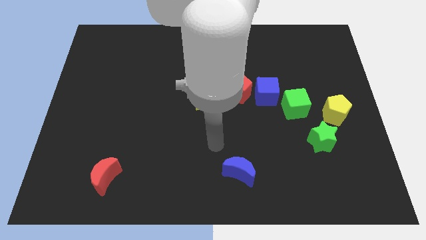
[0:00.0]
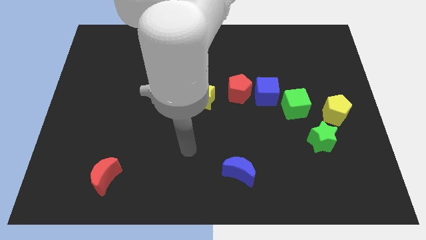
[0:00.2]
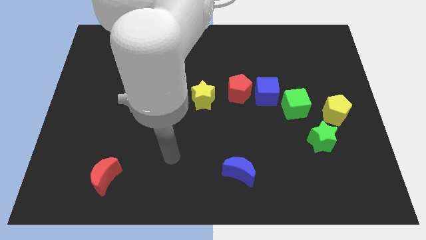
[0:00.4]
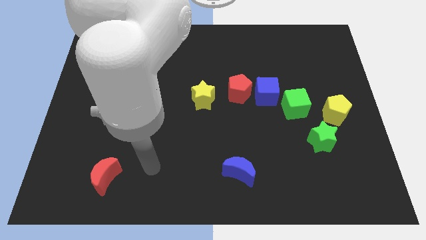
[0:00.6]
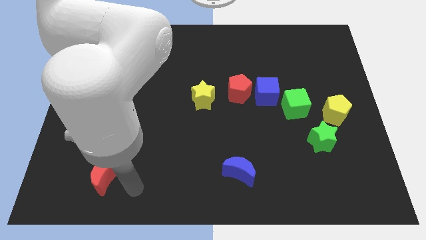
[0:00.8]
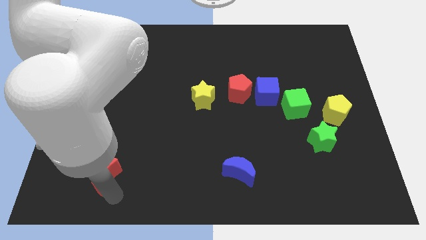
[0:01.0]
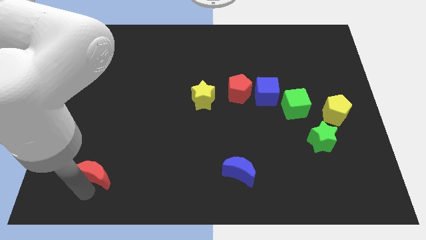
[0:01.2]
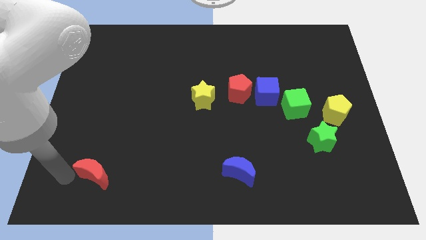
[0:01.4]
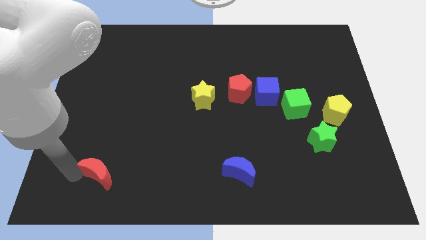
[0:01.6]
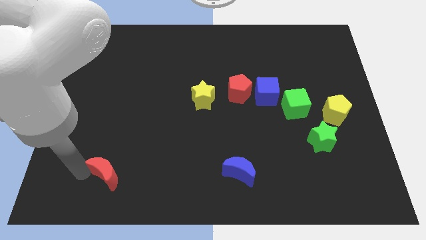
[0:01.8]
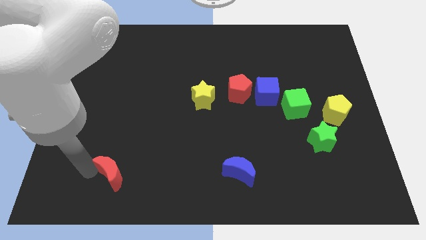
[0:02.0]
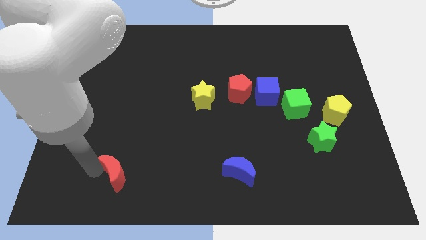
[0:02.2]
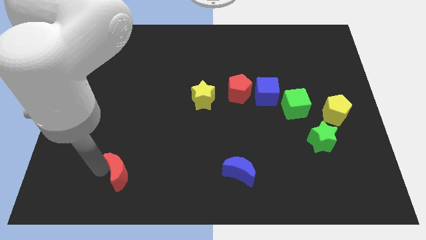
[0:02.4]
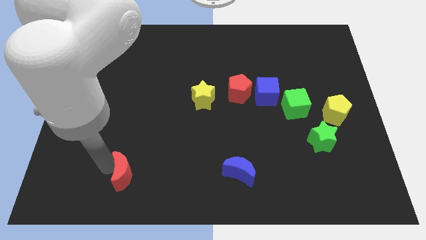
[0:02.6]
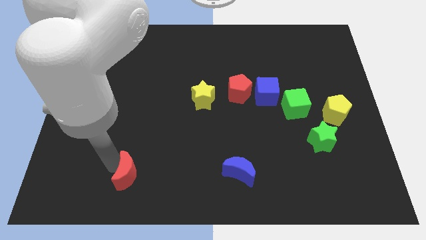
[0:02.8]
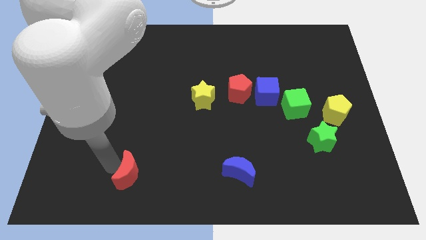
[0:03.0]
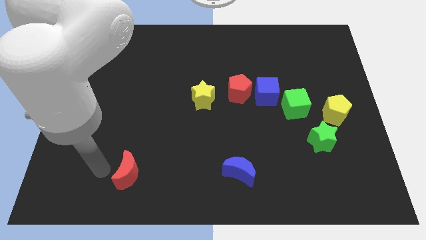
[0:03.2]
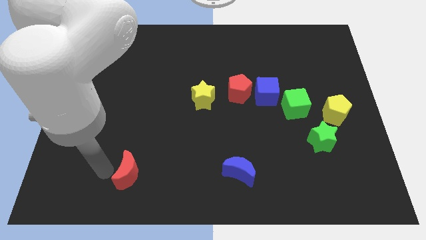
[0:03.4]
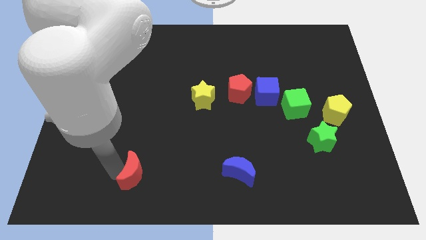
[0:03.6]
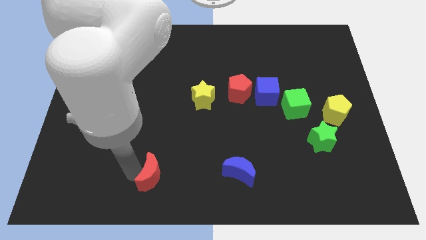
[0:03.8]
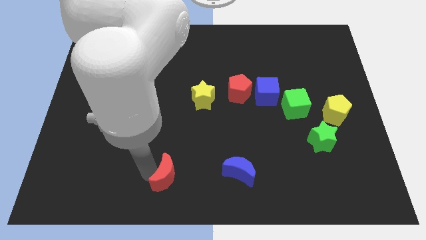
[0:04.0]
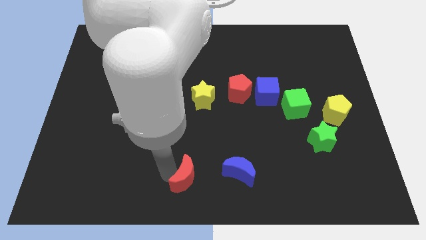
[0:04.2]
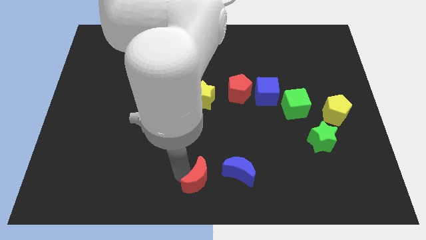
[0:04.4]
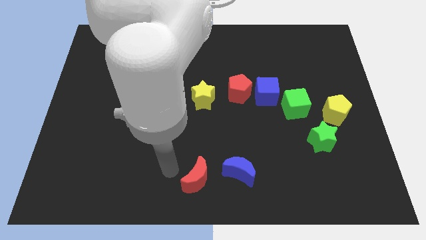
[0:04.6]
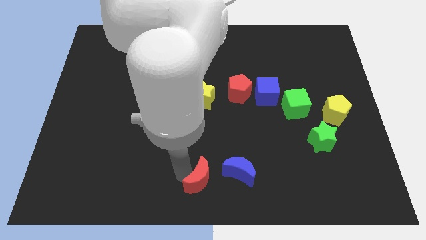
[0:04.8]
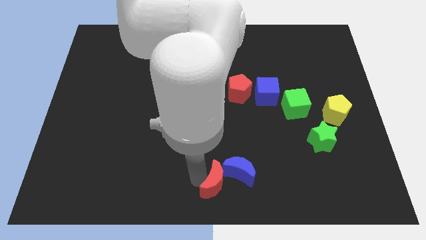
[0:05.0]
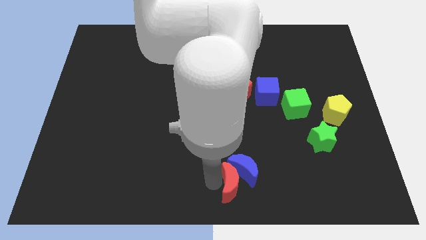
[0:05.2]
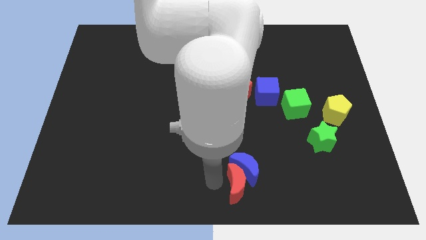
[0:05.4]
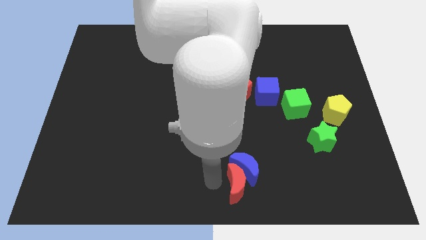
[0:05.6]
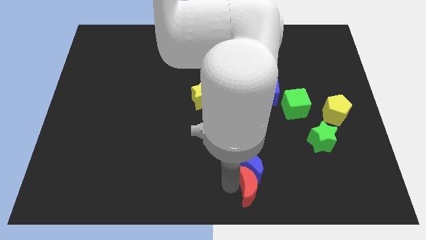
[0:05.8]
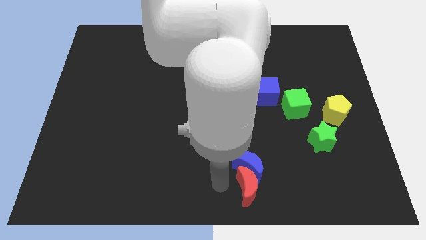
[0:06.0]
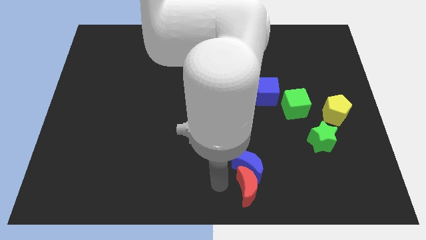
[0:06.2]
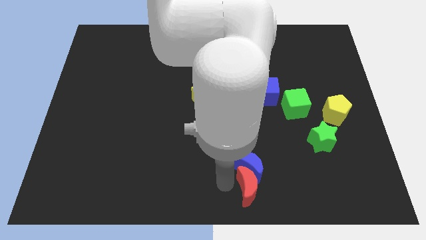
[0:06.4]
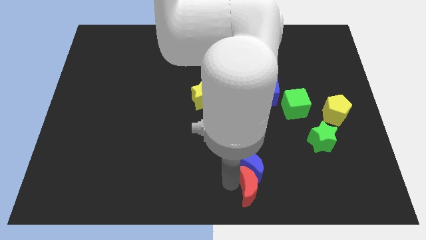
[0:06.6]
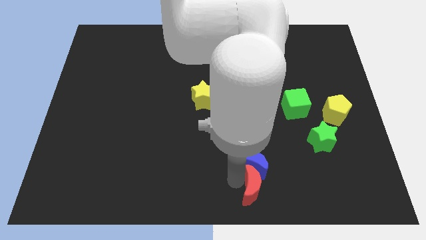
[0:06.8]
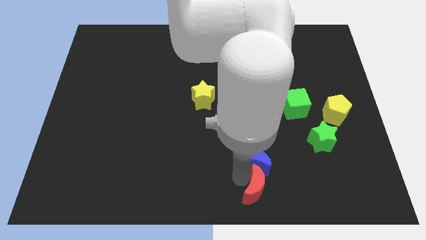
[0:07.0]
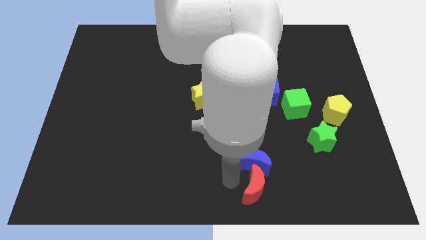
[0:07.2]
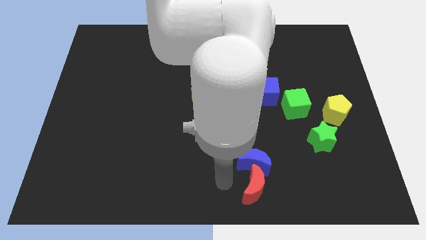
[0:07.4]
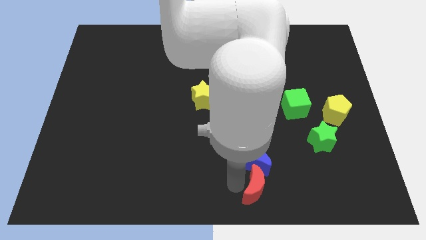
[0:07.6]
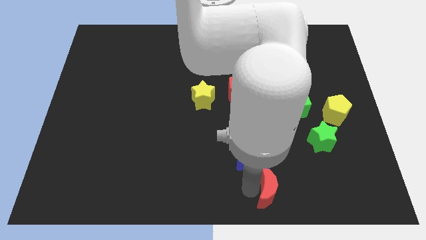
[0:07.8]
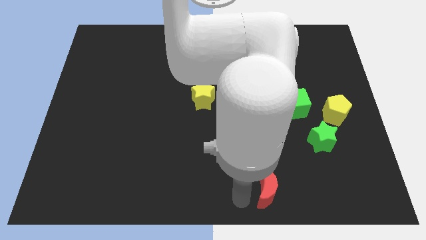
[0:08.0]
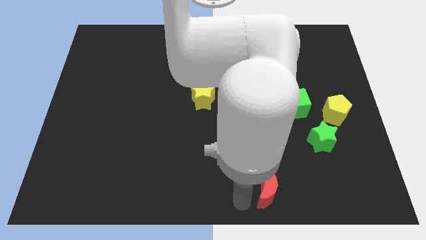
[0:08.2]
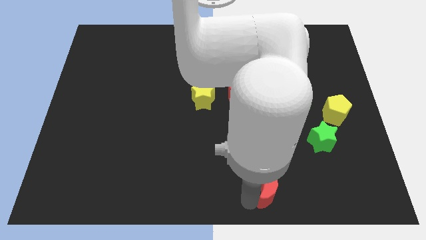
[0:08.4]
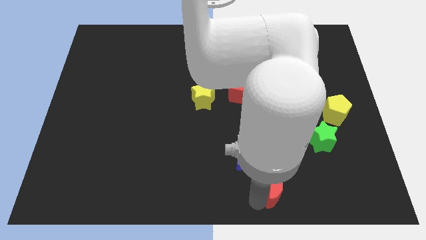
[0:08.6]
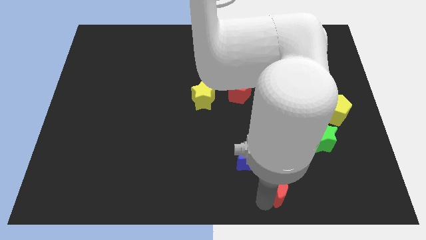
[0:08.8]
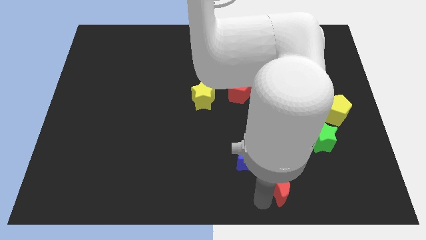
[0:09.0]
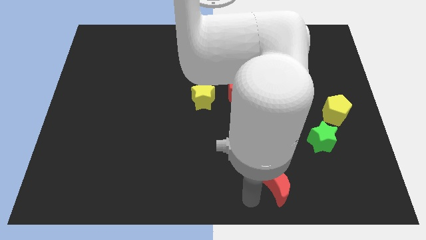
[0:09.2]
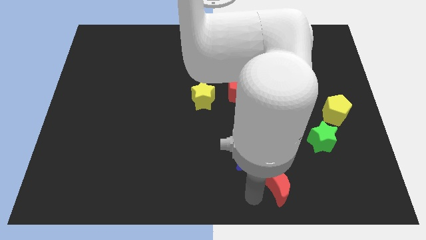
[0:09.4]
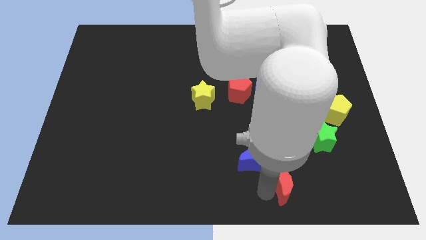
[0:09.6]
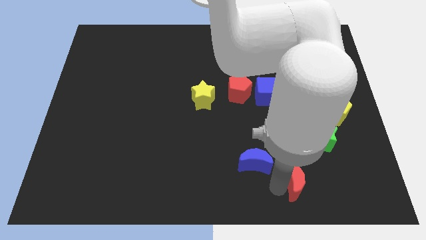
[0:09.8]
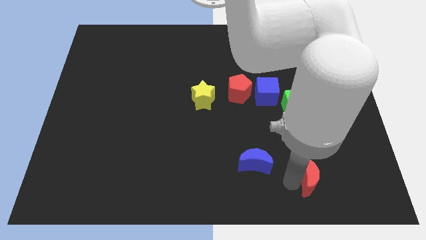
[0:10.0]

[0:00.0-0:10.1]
put the red moon below the green star

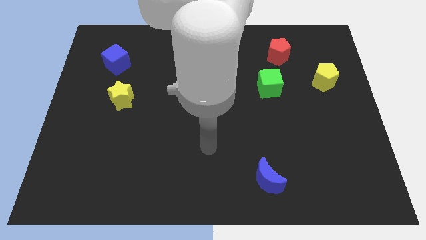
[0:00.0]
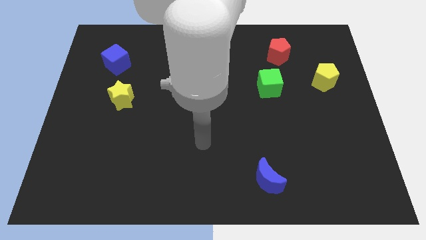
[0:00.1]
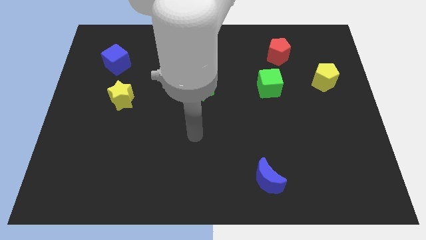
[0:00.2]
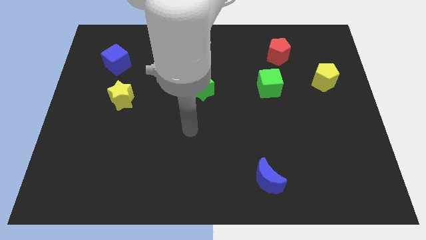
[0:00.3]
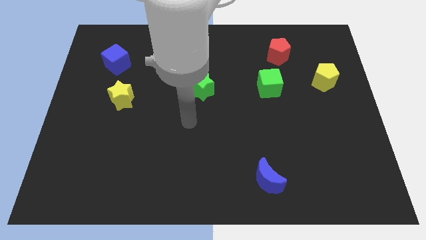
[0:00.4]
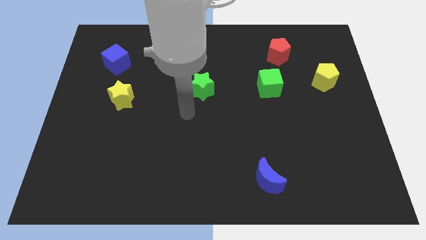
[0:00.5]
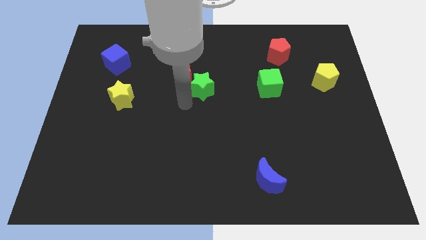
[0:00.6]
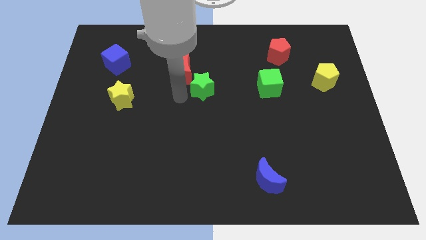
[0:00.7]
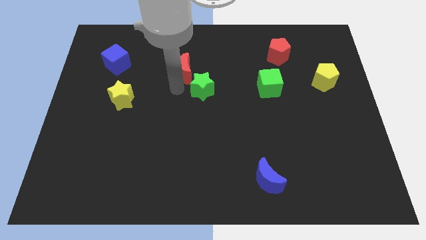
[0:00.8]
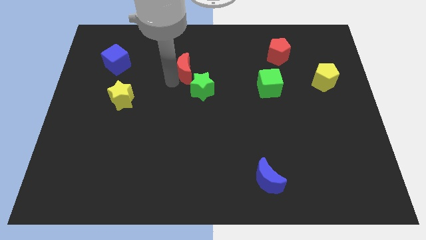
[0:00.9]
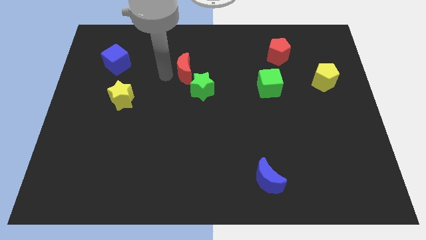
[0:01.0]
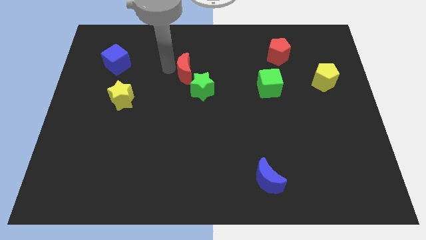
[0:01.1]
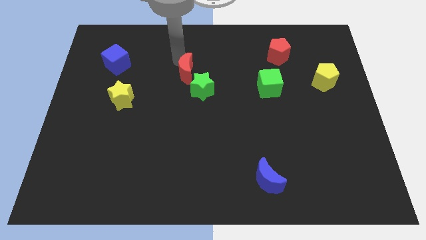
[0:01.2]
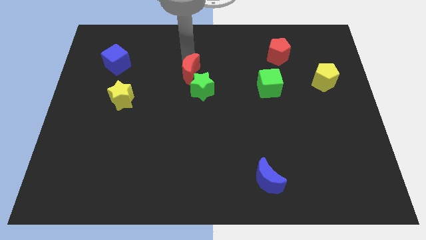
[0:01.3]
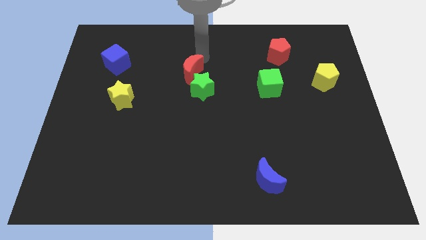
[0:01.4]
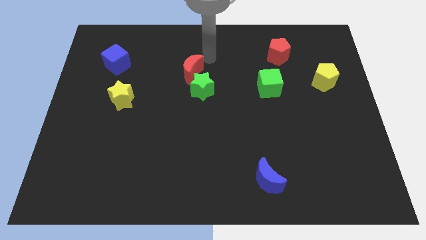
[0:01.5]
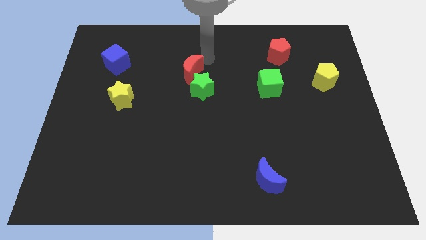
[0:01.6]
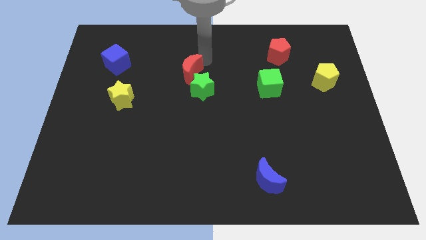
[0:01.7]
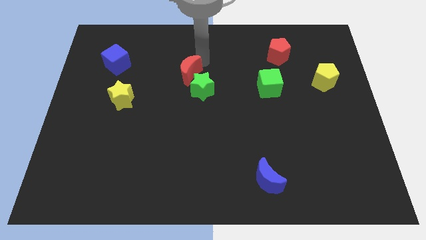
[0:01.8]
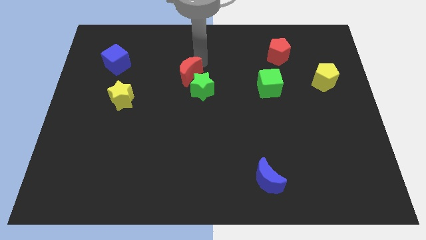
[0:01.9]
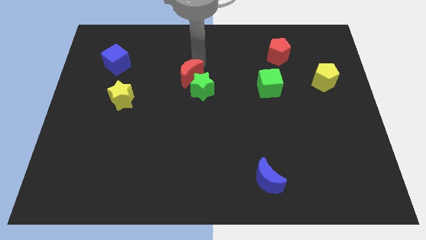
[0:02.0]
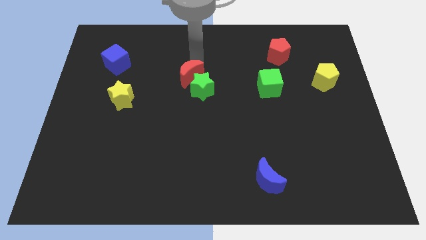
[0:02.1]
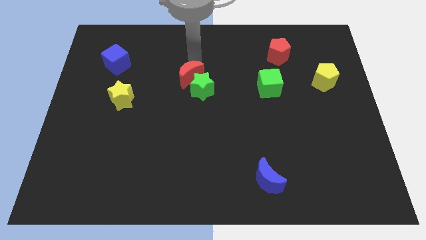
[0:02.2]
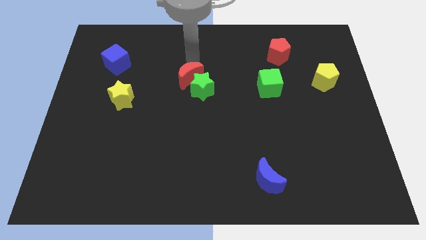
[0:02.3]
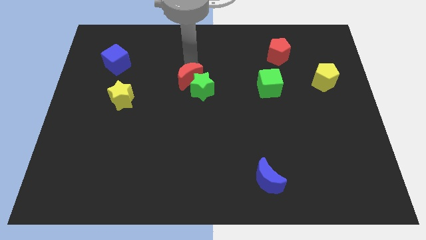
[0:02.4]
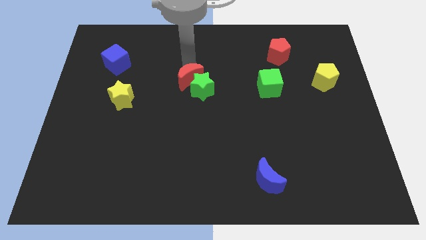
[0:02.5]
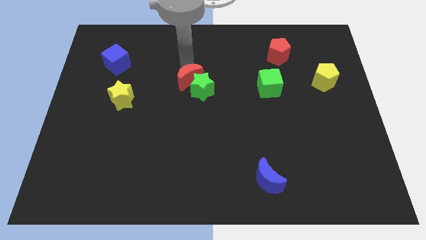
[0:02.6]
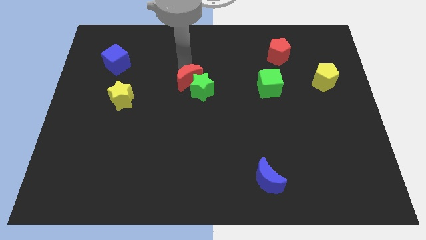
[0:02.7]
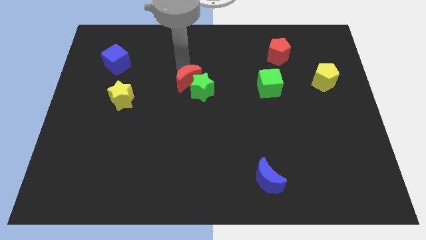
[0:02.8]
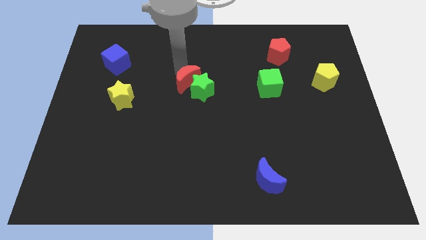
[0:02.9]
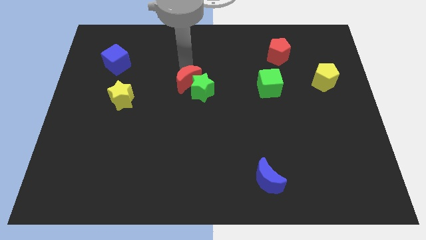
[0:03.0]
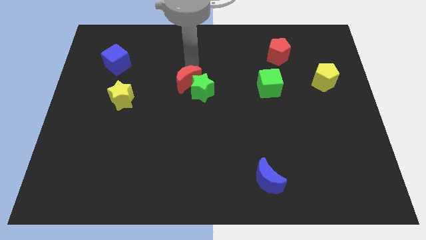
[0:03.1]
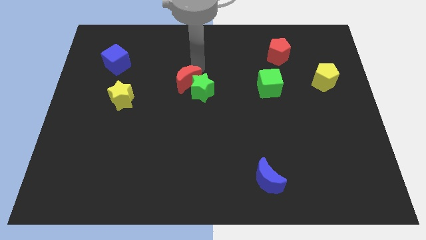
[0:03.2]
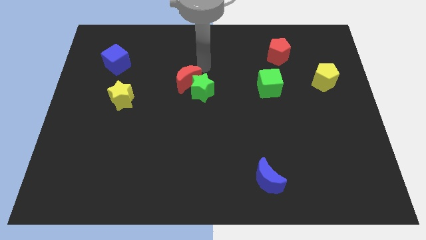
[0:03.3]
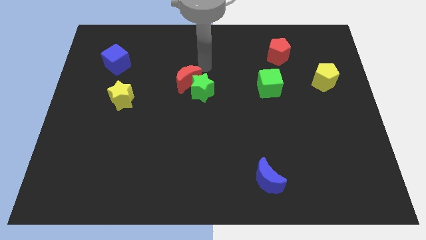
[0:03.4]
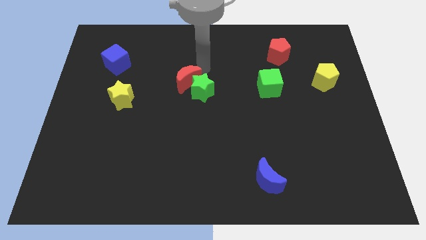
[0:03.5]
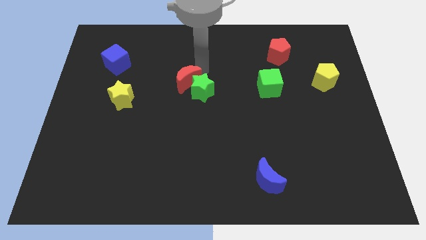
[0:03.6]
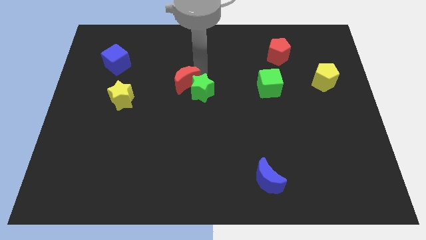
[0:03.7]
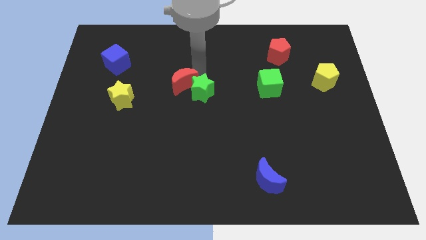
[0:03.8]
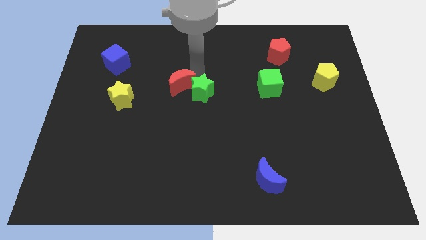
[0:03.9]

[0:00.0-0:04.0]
slide the red moon to the right side of the yellow star
